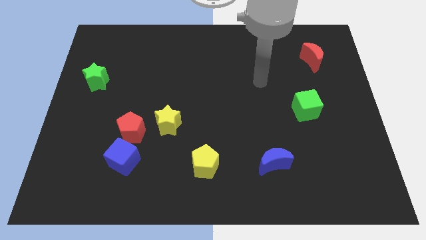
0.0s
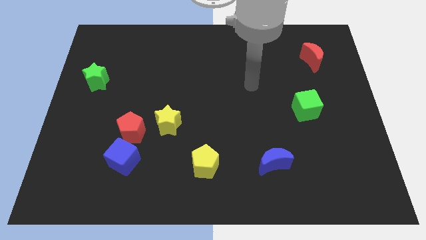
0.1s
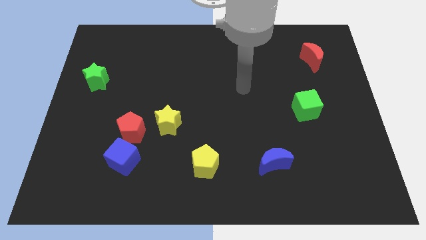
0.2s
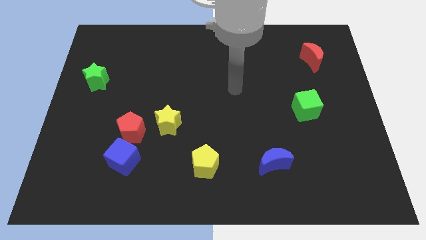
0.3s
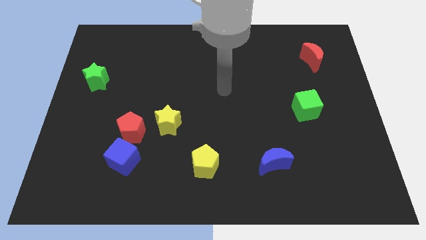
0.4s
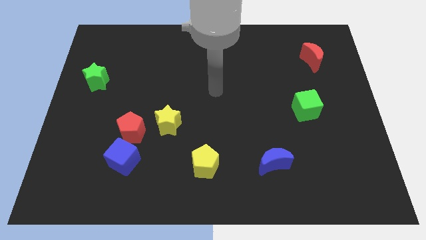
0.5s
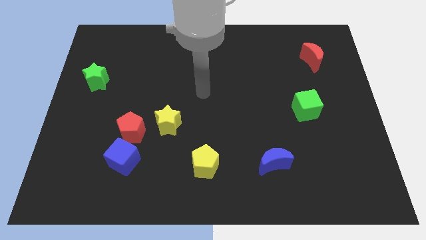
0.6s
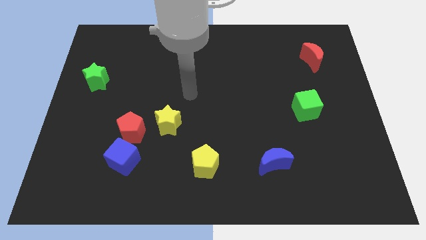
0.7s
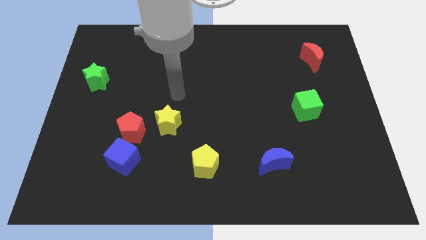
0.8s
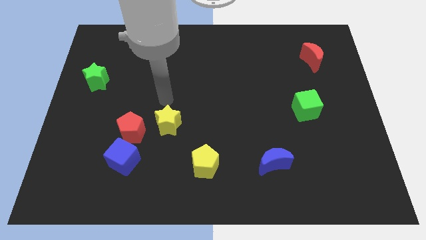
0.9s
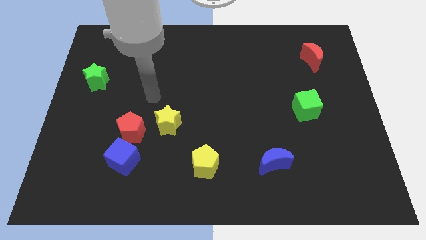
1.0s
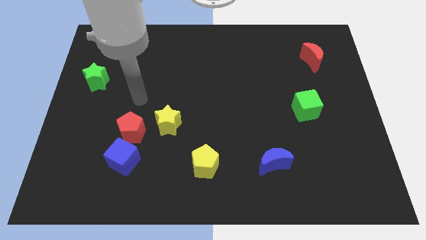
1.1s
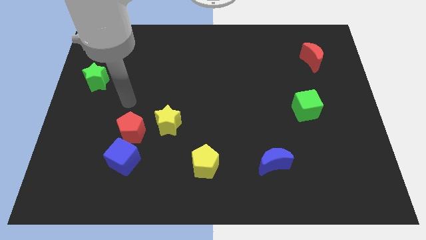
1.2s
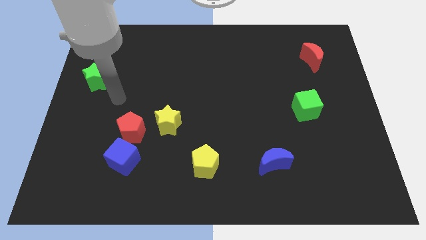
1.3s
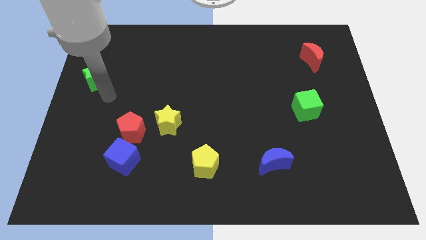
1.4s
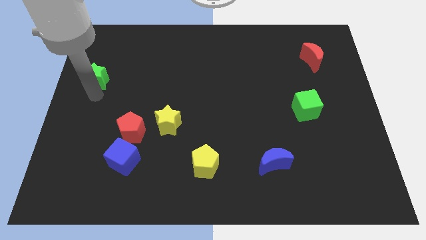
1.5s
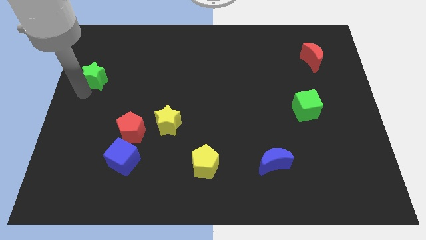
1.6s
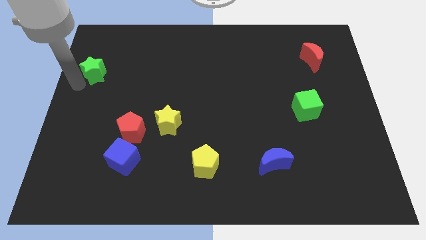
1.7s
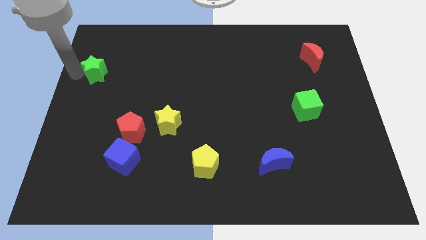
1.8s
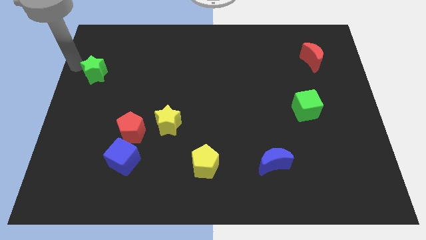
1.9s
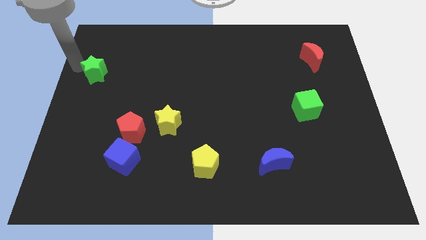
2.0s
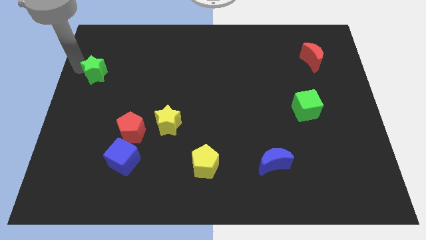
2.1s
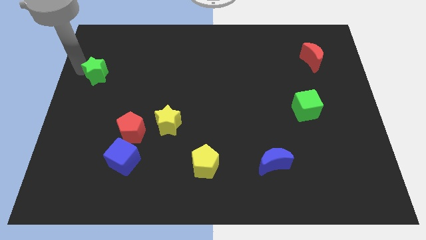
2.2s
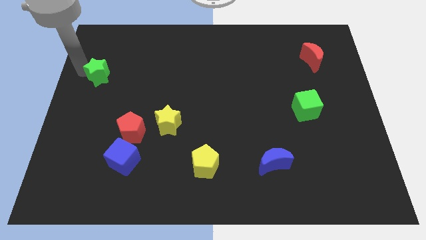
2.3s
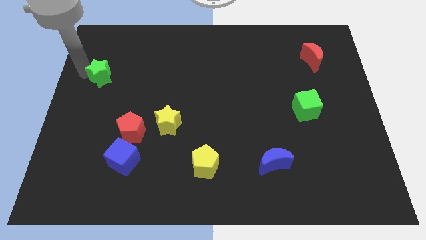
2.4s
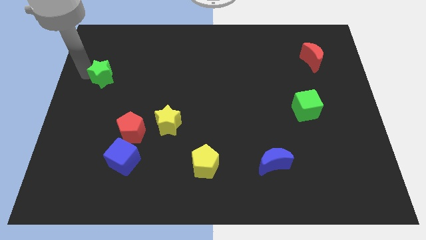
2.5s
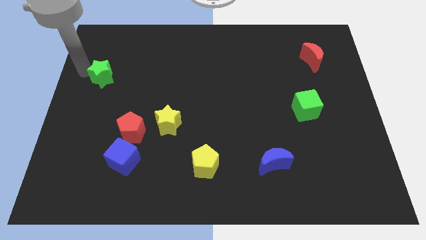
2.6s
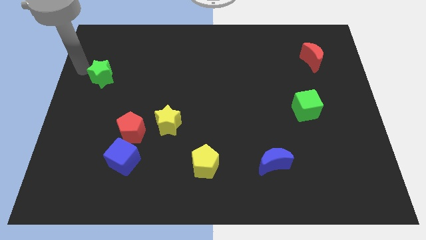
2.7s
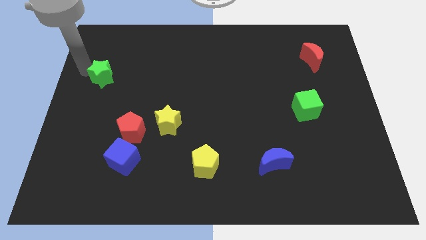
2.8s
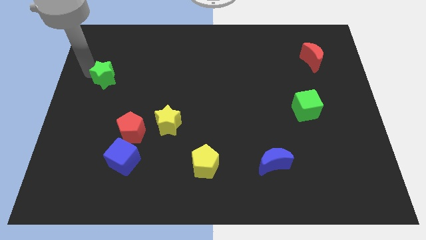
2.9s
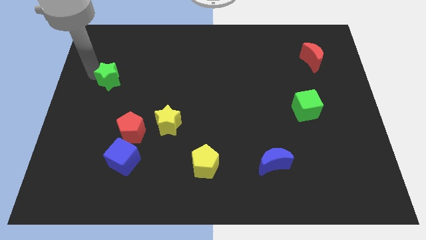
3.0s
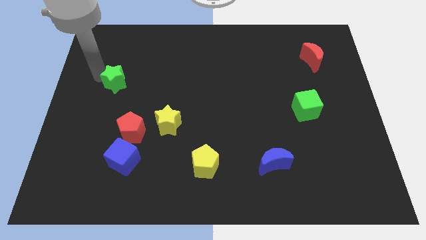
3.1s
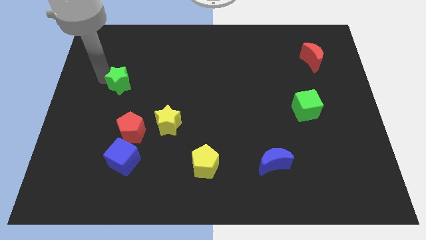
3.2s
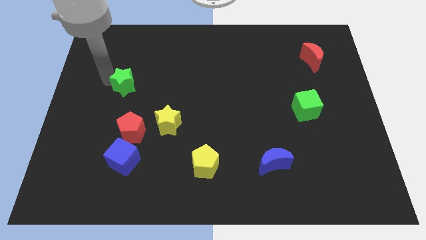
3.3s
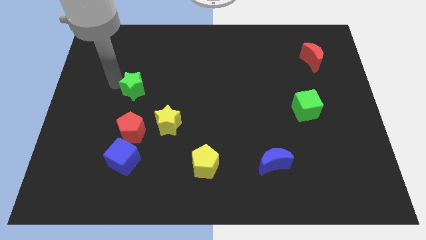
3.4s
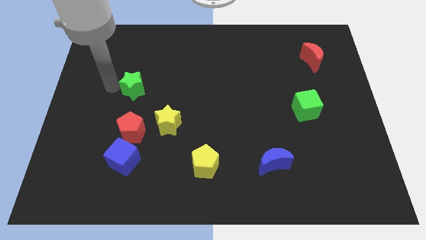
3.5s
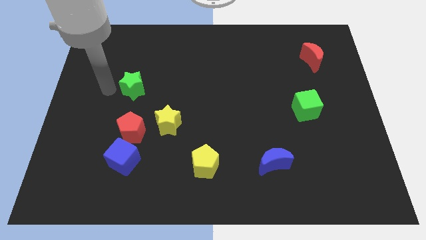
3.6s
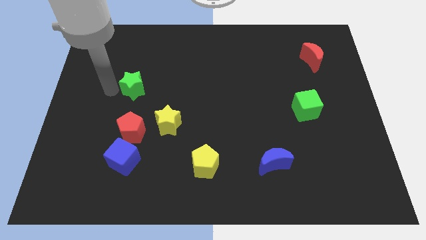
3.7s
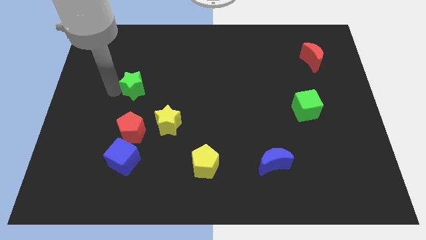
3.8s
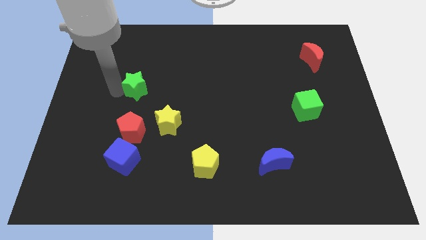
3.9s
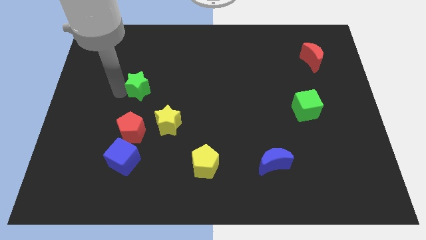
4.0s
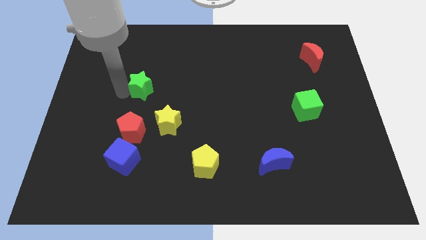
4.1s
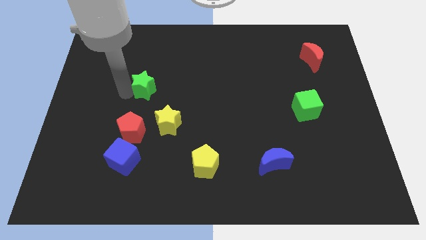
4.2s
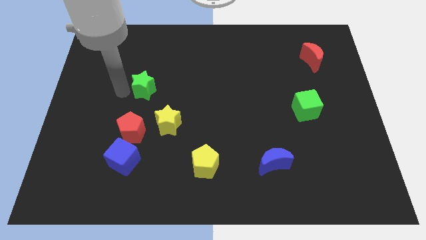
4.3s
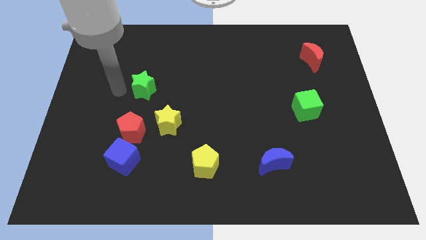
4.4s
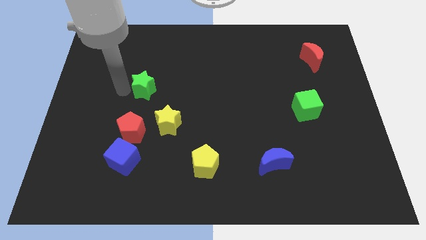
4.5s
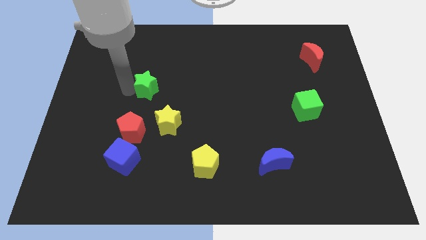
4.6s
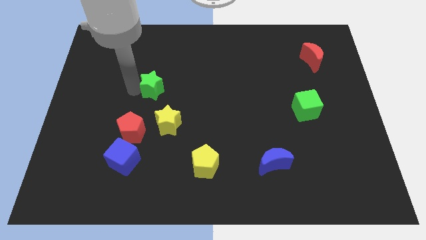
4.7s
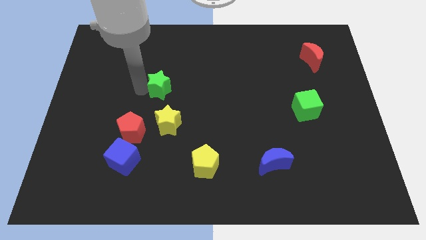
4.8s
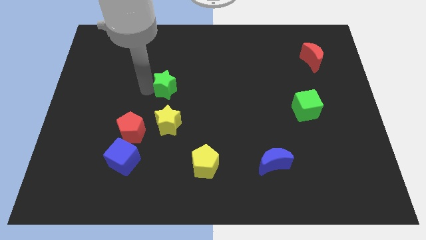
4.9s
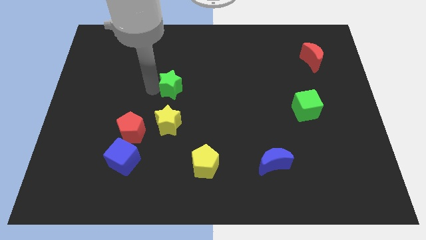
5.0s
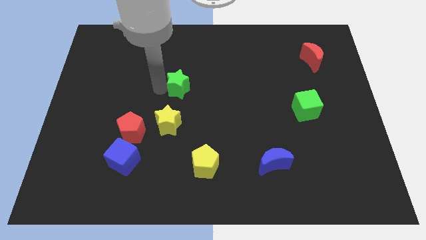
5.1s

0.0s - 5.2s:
push the green star to the right

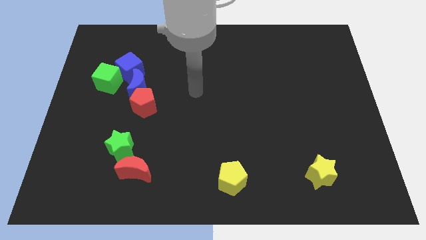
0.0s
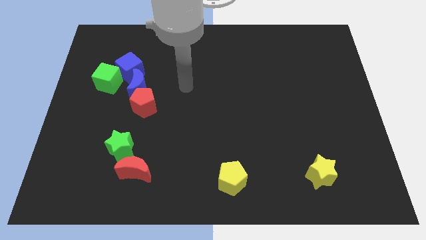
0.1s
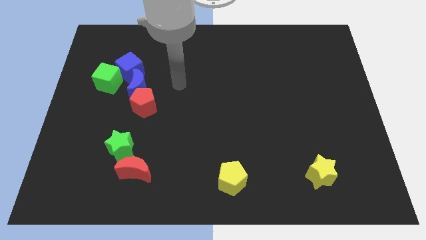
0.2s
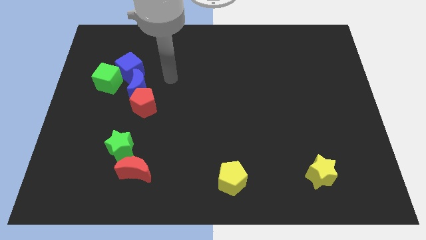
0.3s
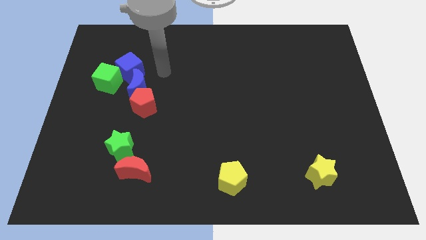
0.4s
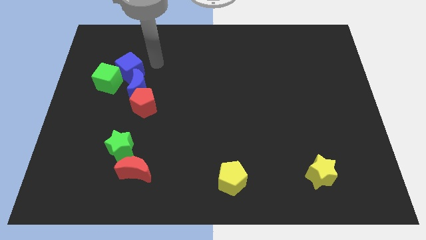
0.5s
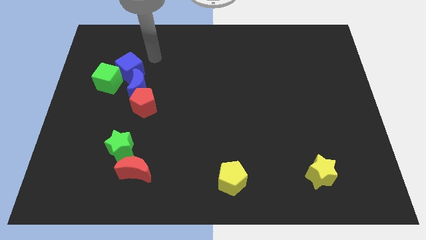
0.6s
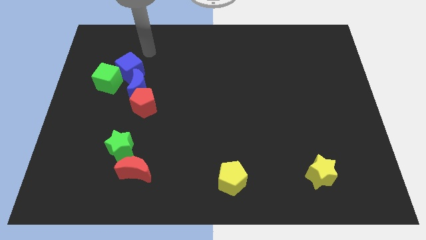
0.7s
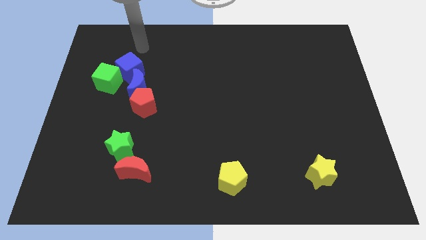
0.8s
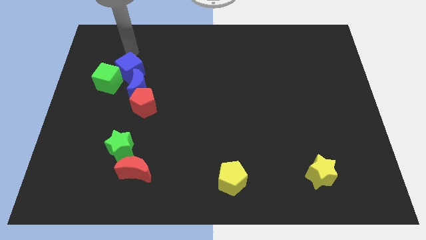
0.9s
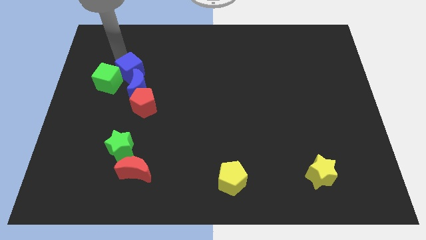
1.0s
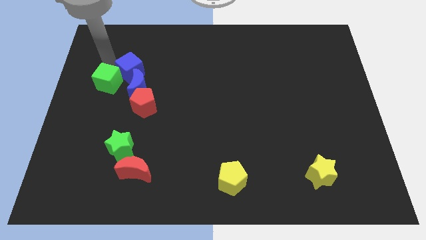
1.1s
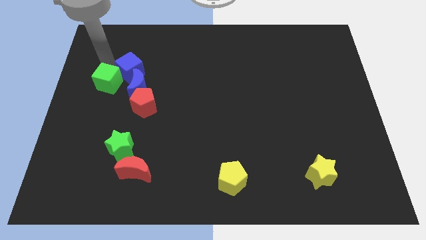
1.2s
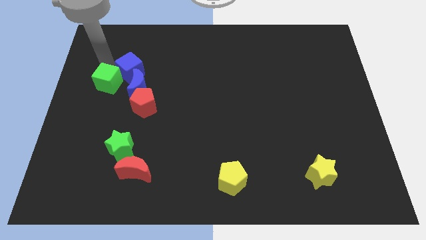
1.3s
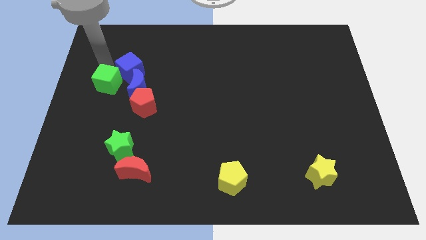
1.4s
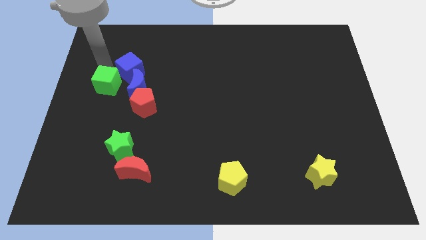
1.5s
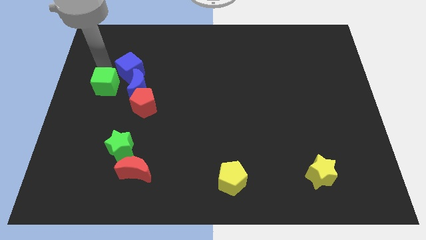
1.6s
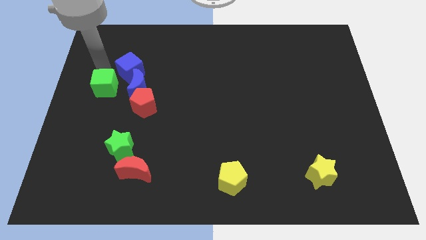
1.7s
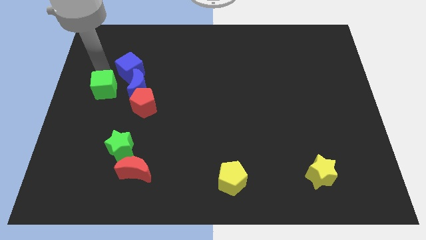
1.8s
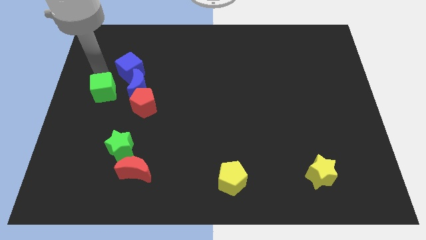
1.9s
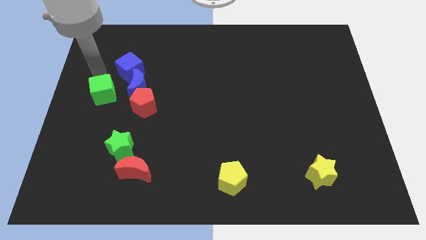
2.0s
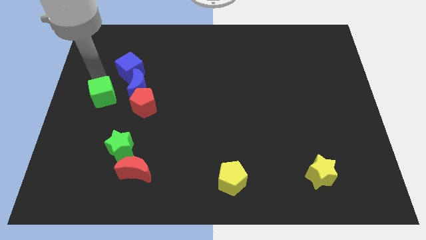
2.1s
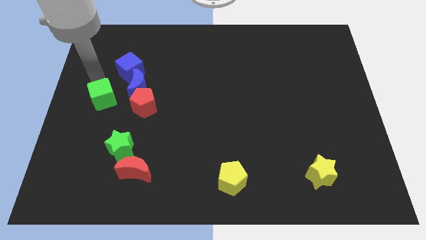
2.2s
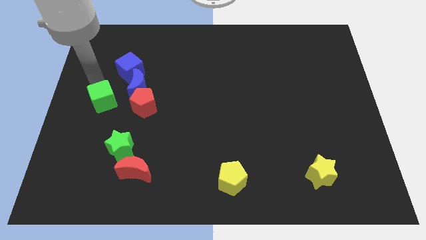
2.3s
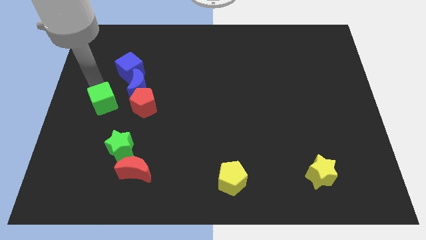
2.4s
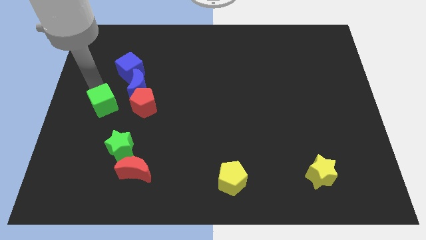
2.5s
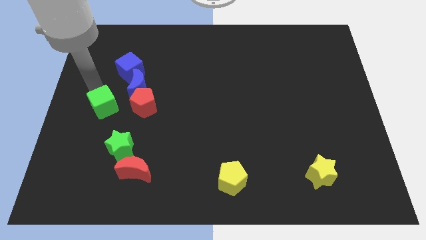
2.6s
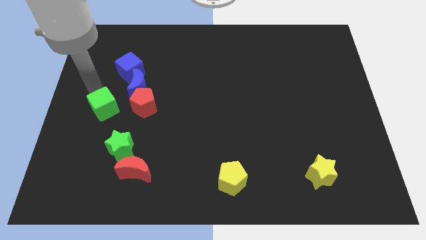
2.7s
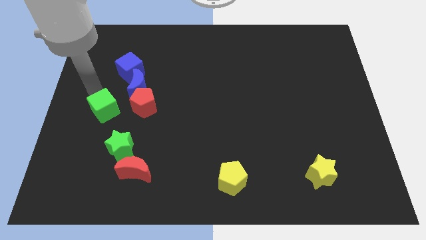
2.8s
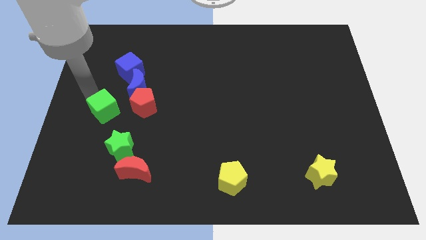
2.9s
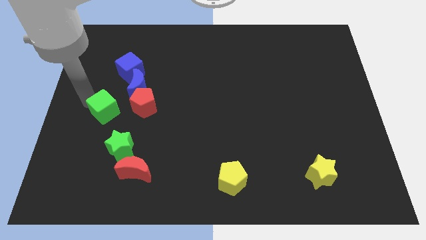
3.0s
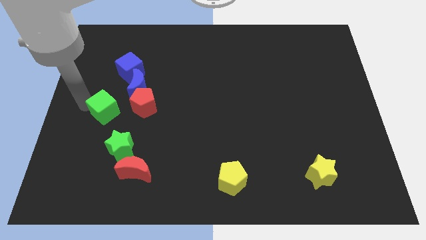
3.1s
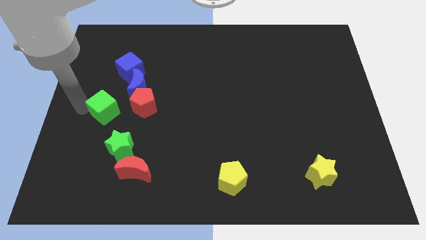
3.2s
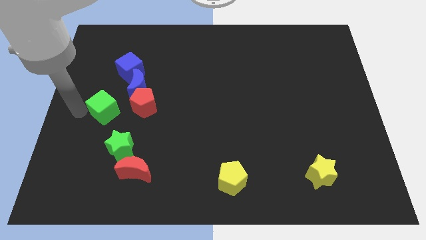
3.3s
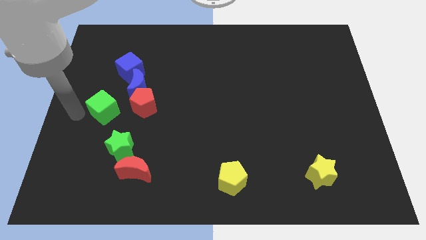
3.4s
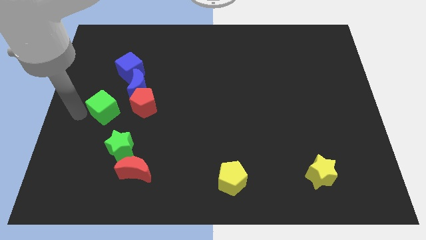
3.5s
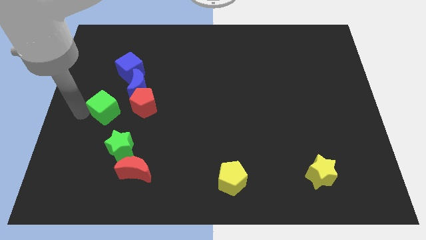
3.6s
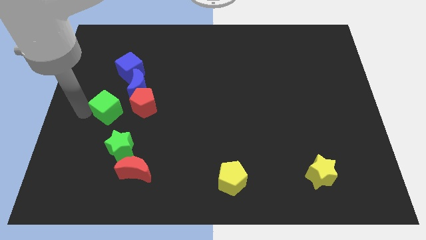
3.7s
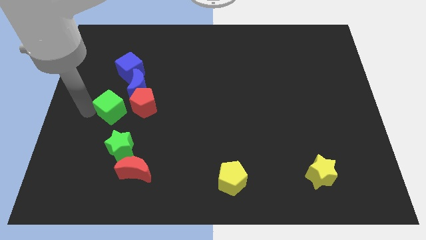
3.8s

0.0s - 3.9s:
slightly move the green cube diagonally downwards and right
